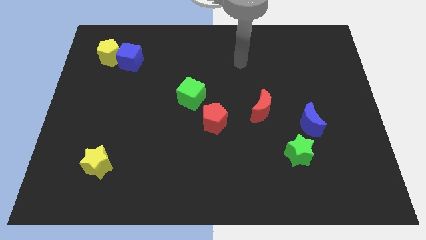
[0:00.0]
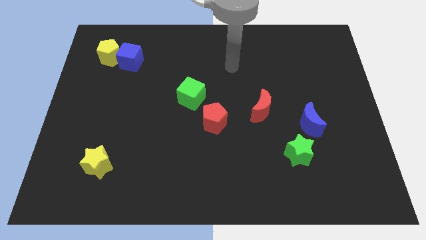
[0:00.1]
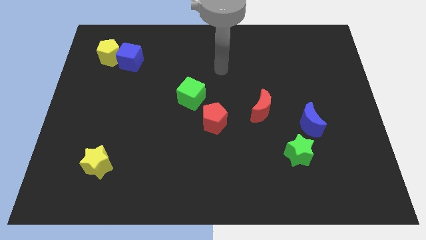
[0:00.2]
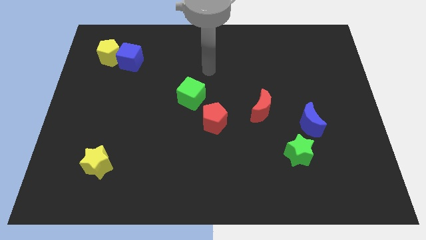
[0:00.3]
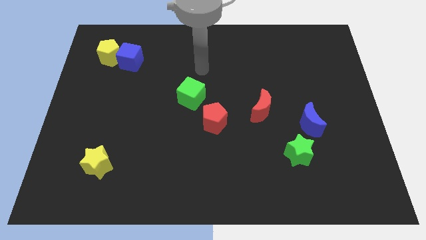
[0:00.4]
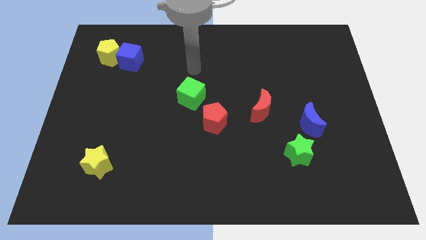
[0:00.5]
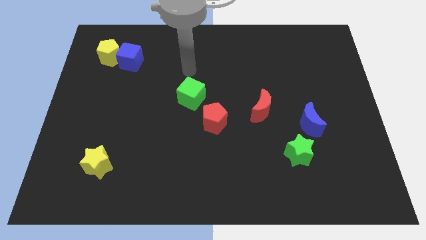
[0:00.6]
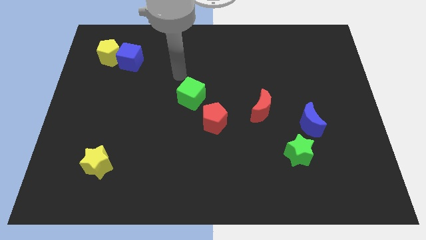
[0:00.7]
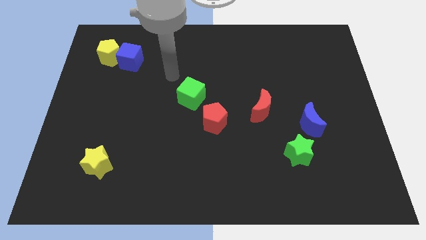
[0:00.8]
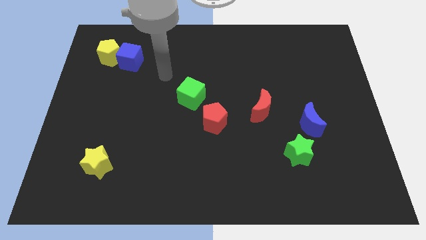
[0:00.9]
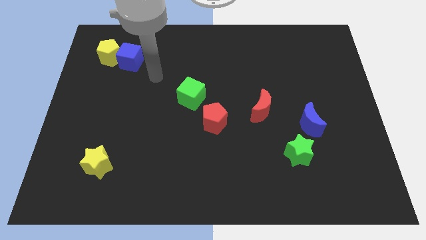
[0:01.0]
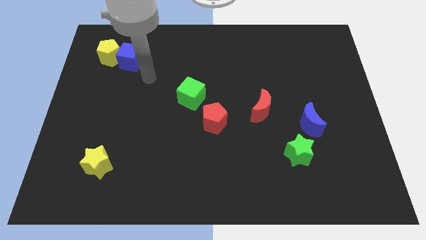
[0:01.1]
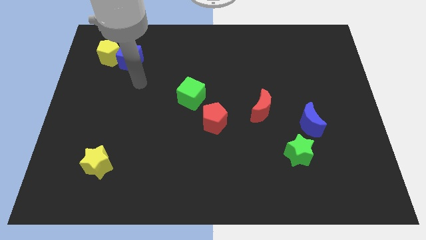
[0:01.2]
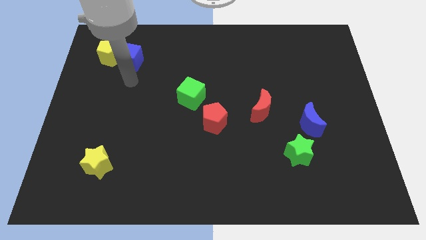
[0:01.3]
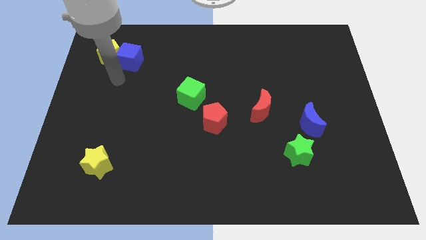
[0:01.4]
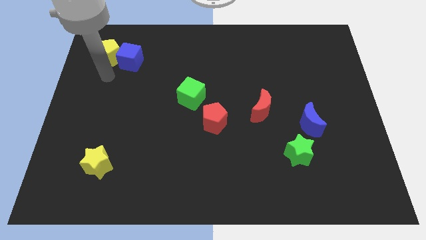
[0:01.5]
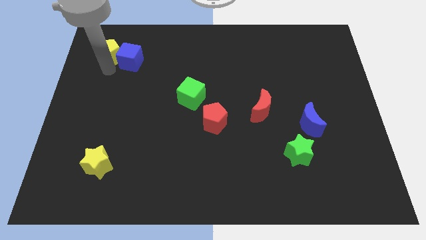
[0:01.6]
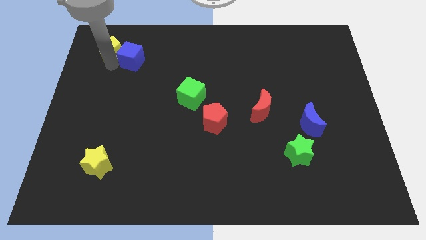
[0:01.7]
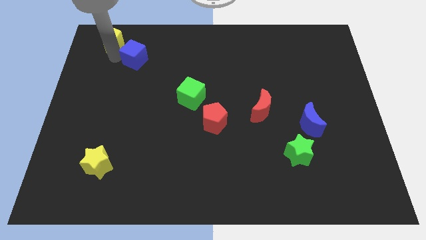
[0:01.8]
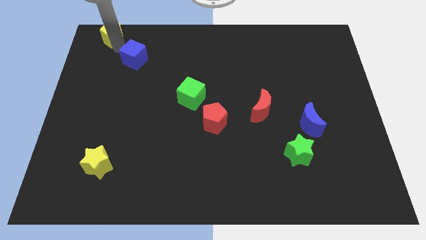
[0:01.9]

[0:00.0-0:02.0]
pull the blue cube apart from the yellow pentagon

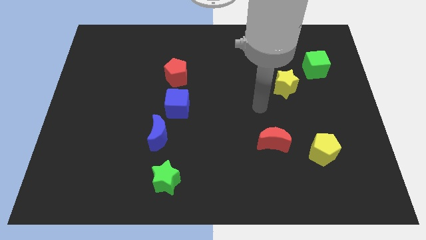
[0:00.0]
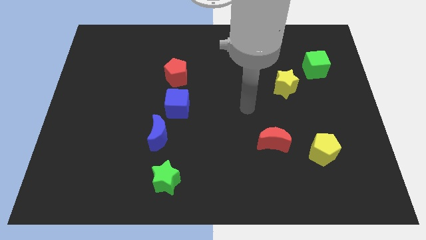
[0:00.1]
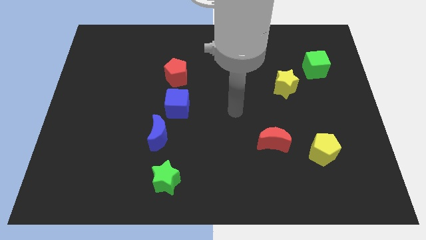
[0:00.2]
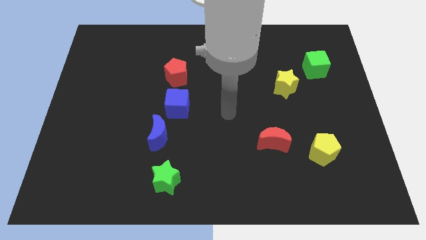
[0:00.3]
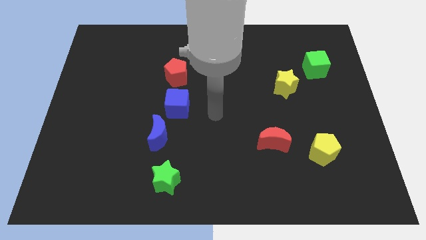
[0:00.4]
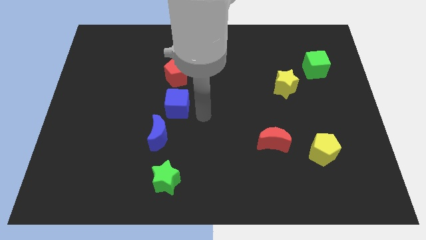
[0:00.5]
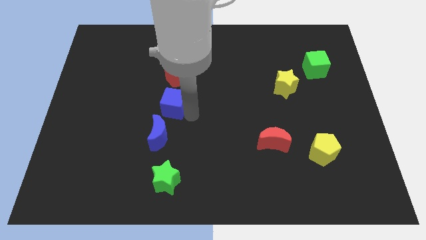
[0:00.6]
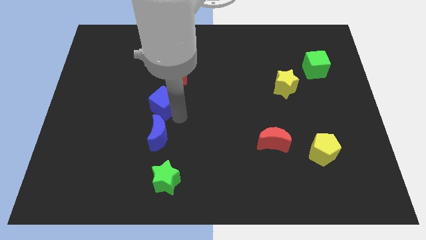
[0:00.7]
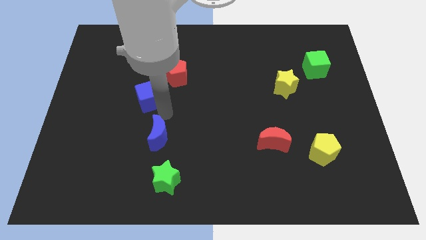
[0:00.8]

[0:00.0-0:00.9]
pull the blue moon apart from the blue cube

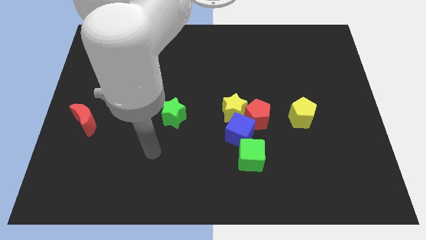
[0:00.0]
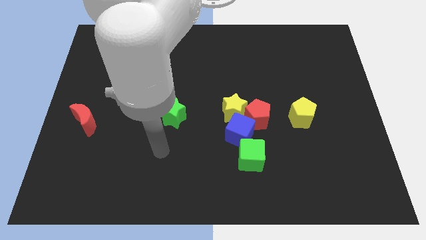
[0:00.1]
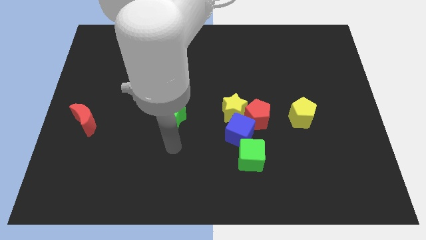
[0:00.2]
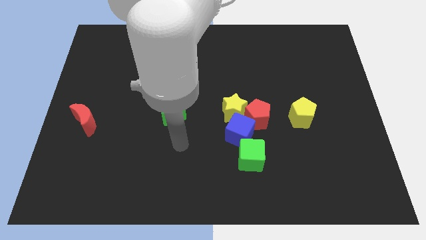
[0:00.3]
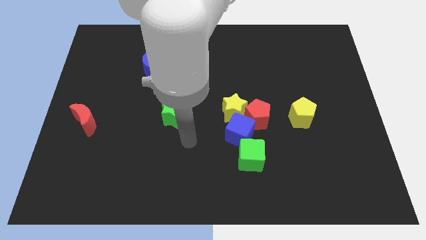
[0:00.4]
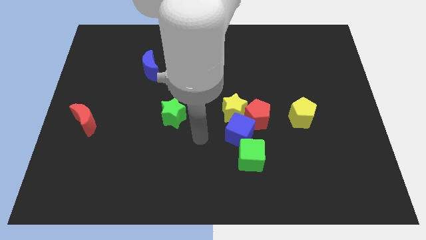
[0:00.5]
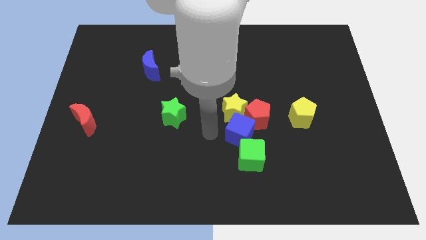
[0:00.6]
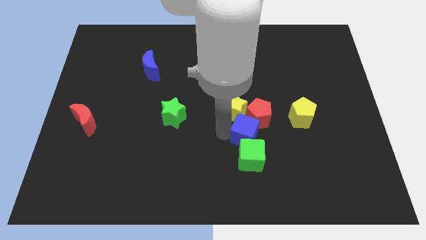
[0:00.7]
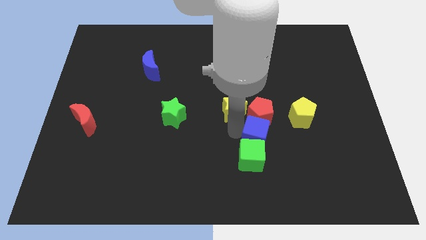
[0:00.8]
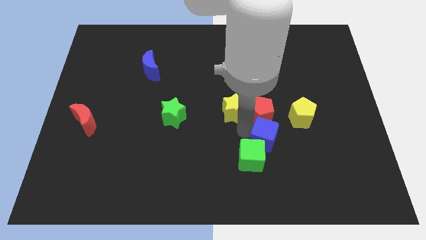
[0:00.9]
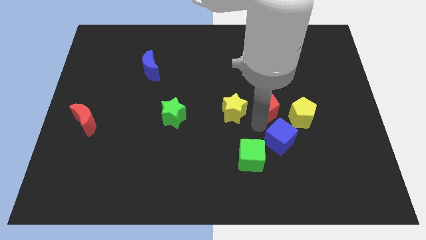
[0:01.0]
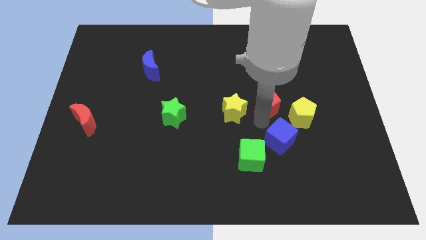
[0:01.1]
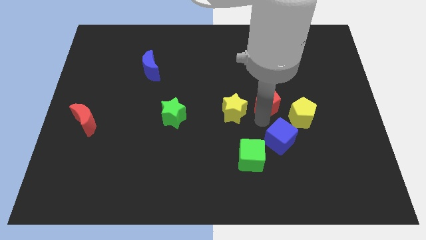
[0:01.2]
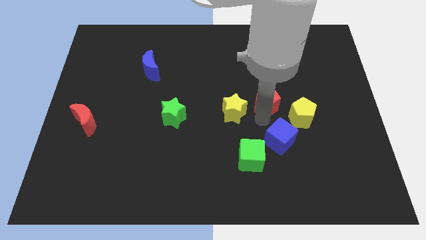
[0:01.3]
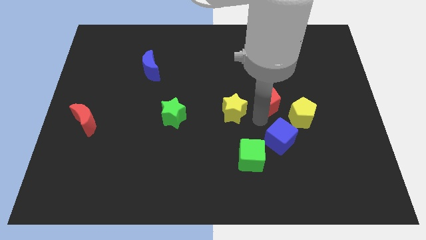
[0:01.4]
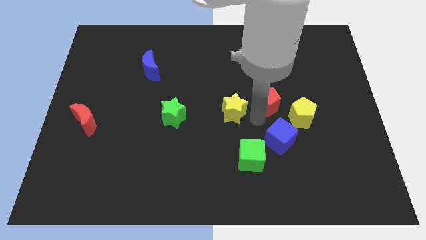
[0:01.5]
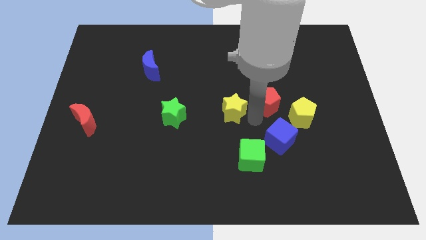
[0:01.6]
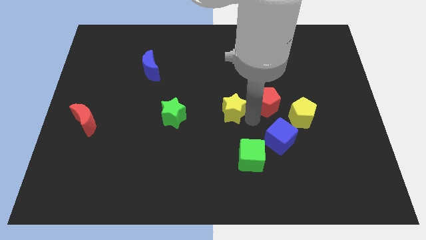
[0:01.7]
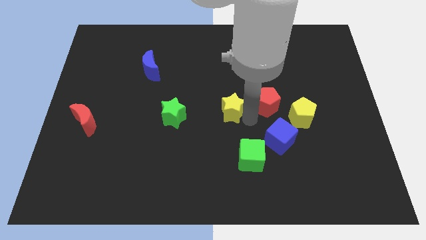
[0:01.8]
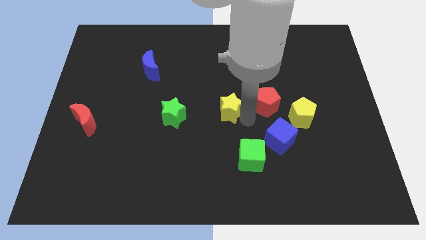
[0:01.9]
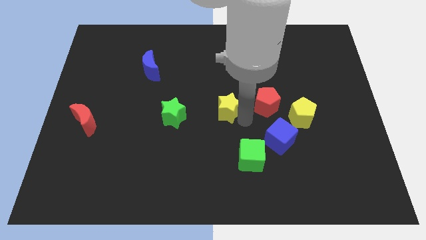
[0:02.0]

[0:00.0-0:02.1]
separate the yellow star from the red pentagon and blue cube

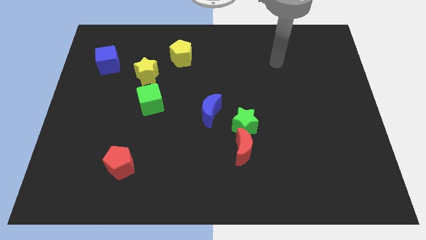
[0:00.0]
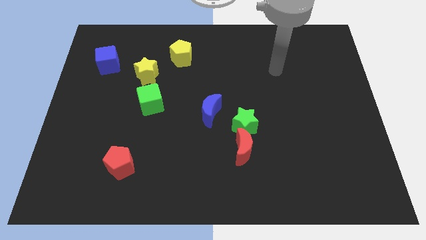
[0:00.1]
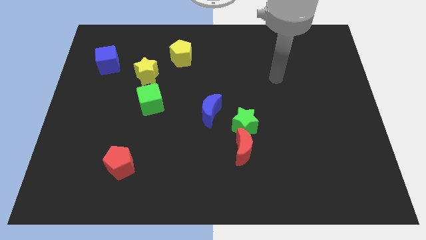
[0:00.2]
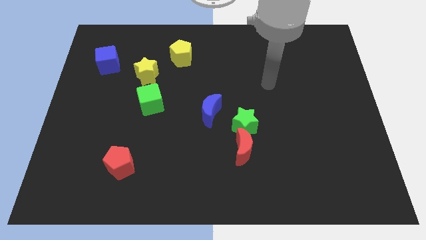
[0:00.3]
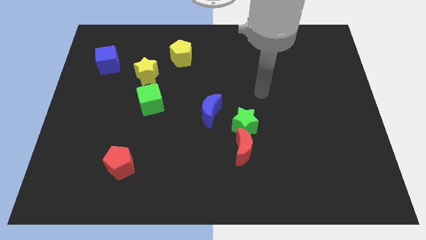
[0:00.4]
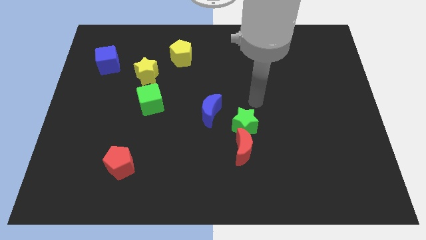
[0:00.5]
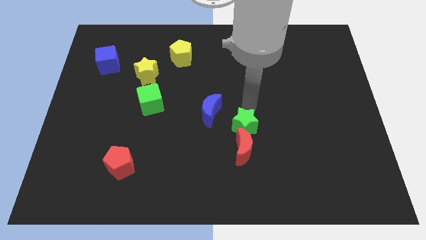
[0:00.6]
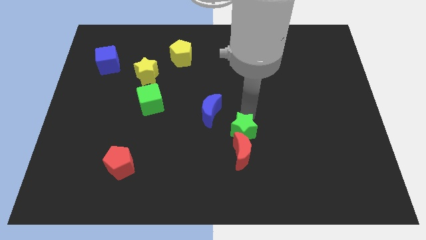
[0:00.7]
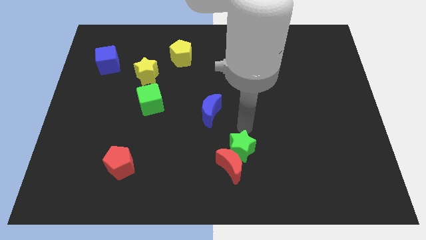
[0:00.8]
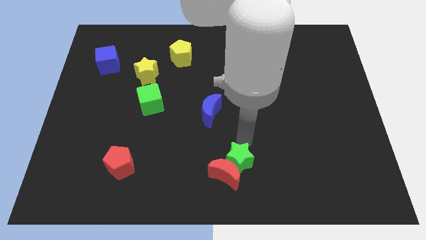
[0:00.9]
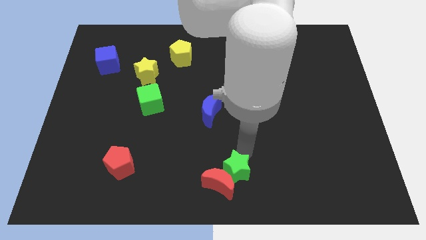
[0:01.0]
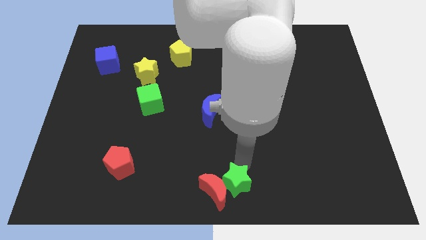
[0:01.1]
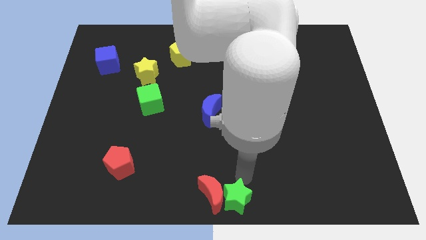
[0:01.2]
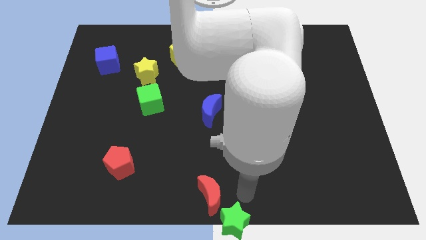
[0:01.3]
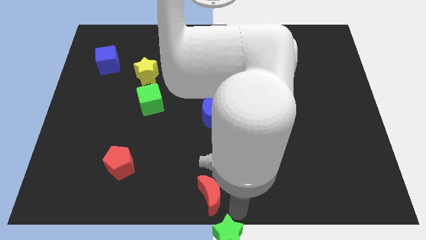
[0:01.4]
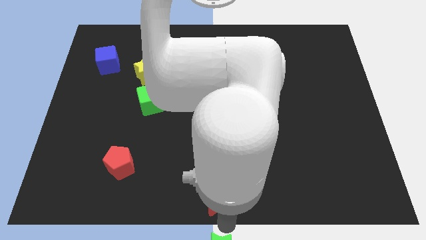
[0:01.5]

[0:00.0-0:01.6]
move the red moon away from the green star

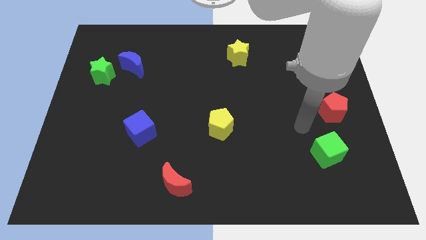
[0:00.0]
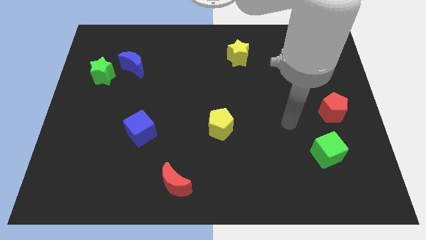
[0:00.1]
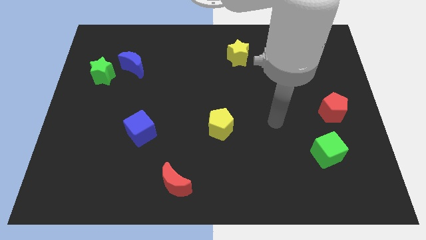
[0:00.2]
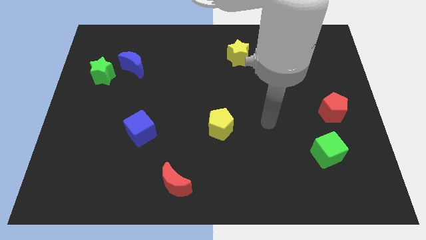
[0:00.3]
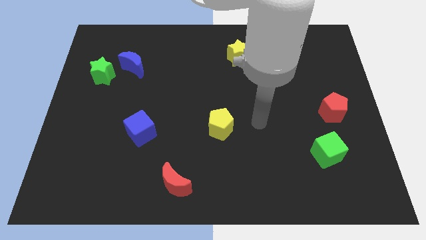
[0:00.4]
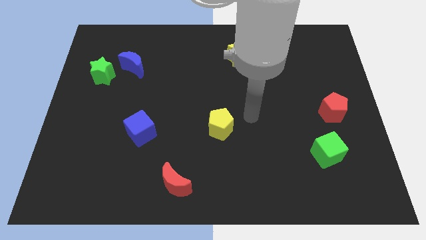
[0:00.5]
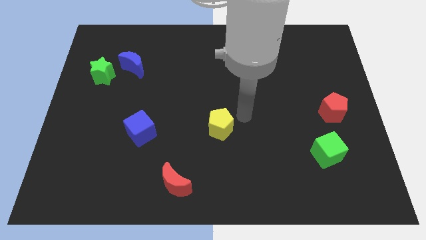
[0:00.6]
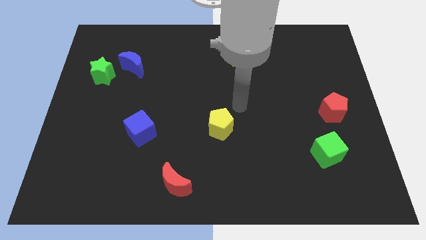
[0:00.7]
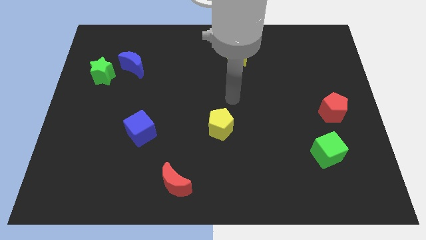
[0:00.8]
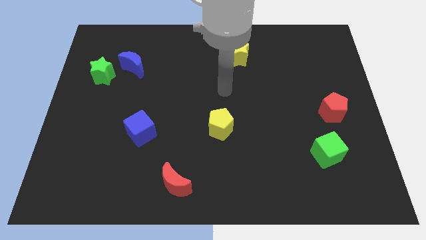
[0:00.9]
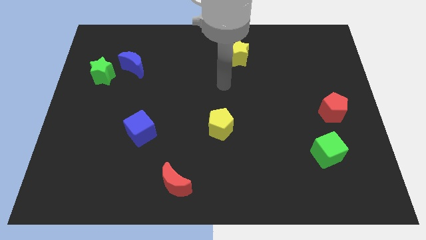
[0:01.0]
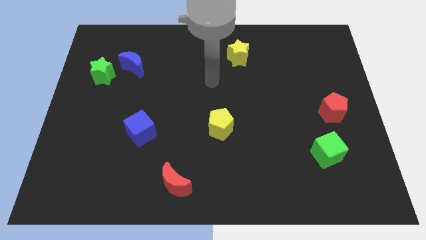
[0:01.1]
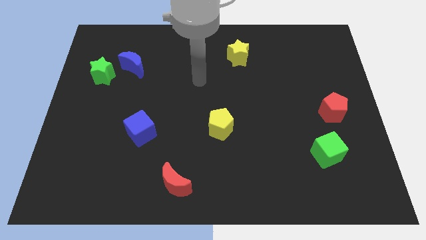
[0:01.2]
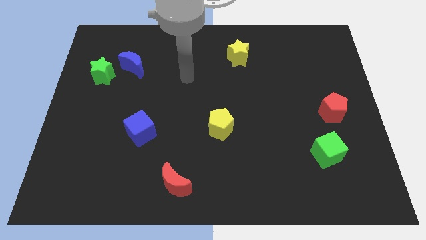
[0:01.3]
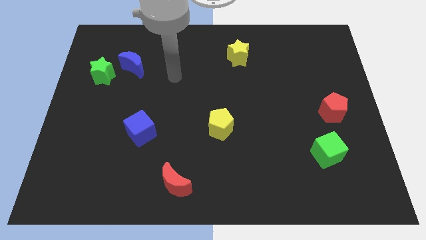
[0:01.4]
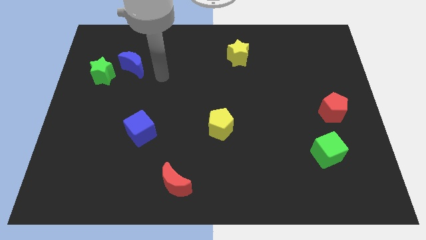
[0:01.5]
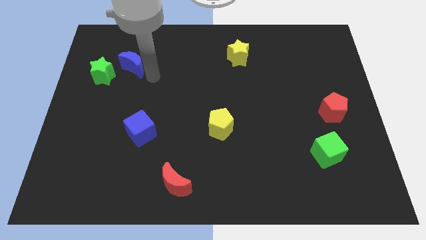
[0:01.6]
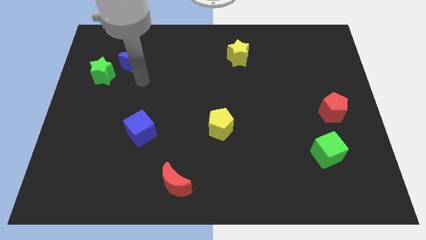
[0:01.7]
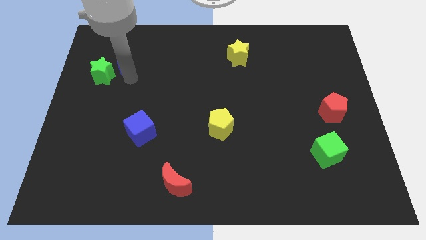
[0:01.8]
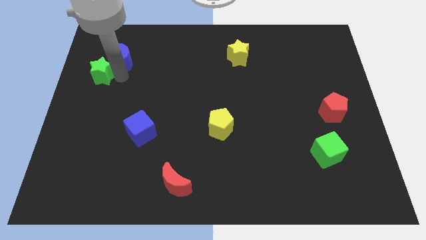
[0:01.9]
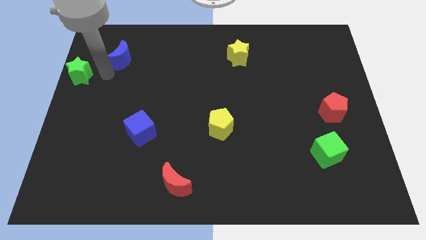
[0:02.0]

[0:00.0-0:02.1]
separate the blue moon from the green star

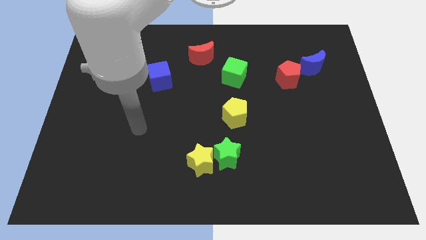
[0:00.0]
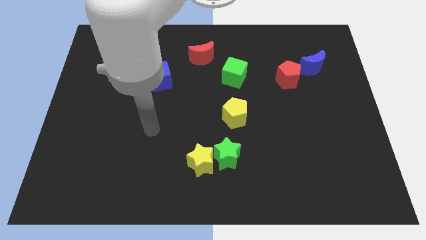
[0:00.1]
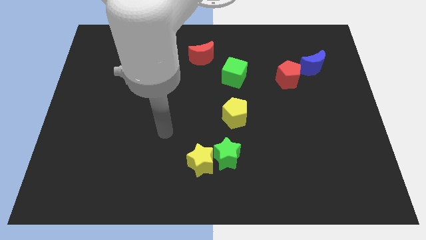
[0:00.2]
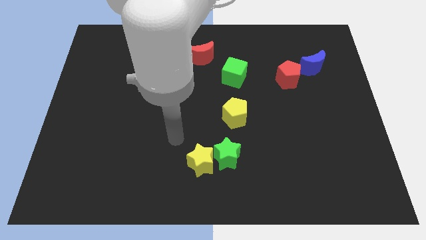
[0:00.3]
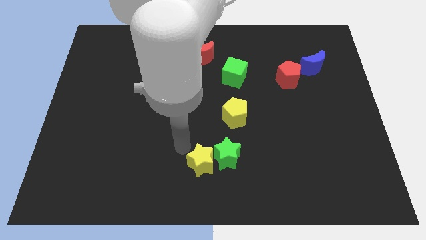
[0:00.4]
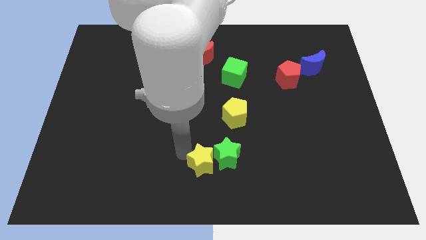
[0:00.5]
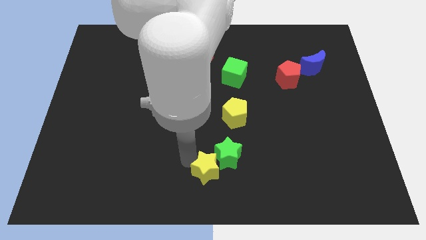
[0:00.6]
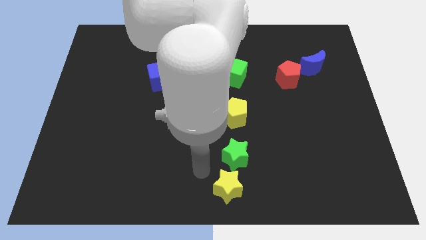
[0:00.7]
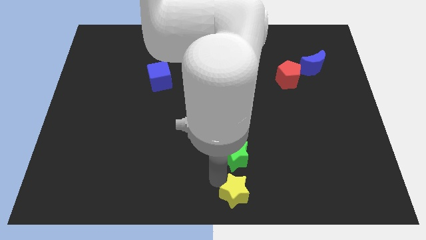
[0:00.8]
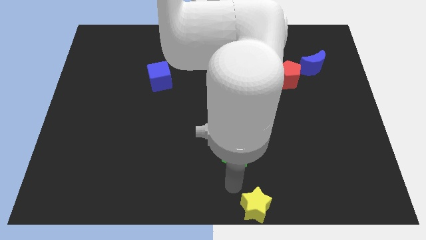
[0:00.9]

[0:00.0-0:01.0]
separate the green star from the yellow star
